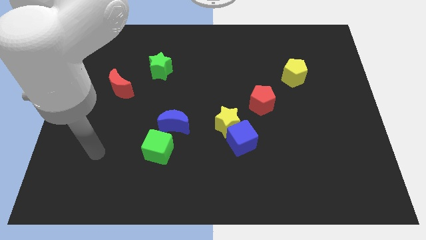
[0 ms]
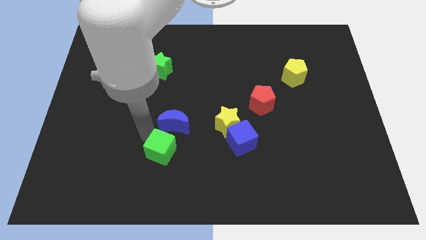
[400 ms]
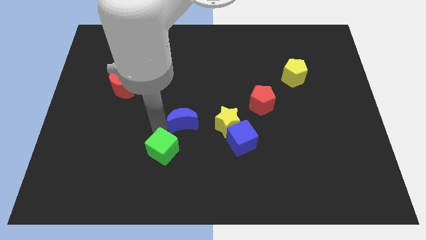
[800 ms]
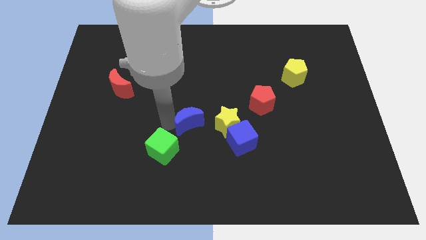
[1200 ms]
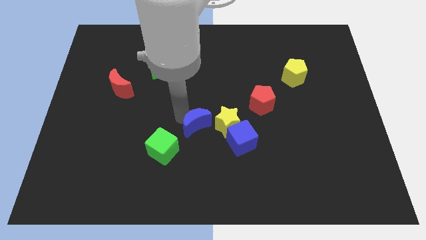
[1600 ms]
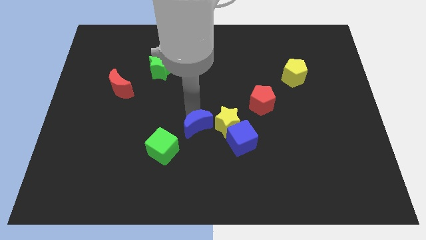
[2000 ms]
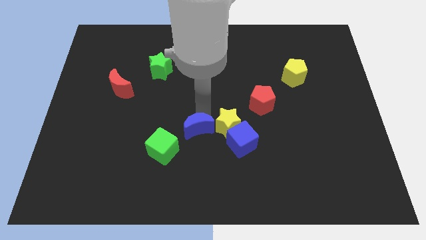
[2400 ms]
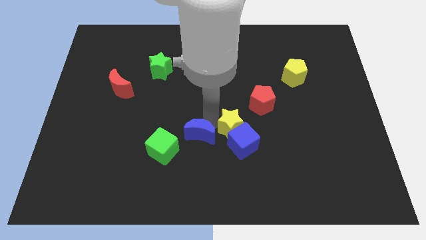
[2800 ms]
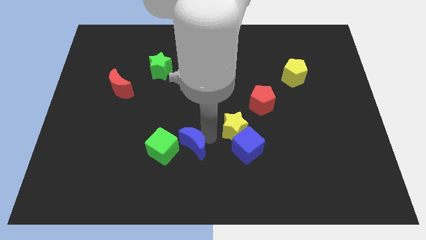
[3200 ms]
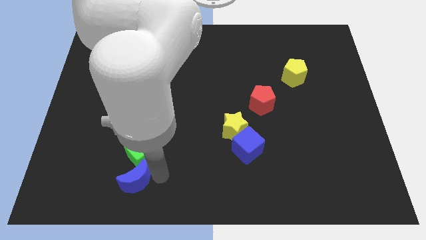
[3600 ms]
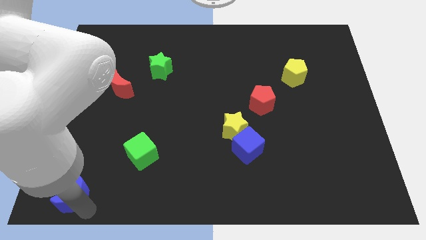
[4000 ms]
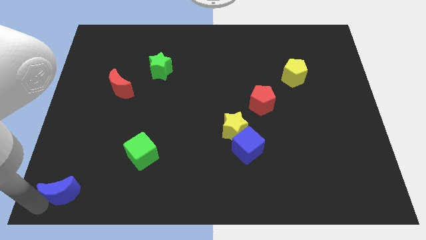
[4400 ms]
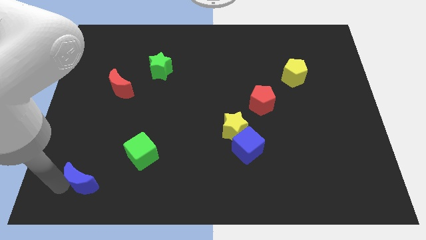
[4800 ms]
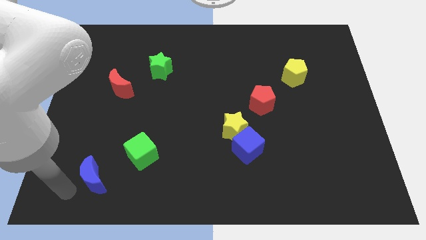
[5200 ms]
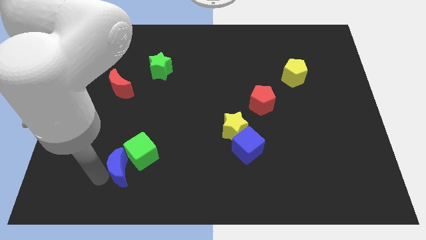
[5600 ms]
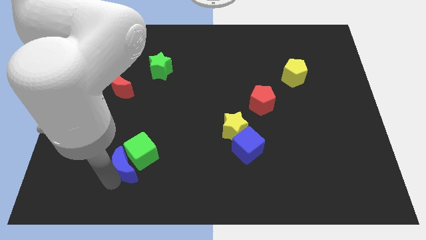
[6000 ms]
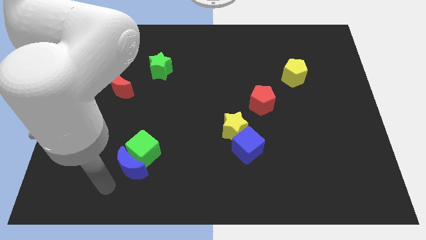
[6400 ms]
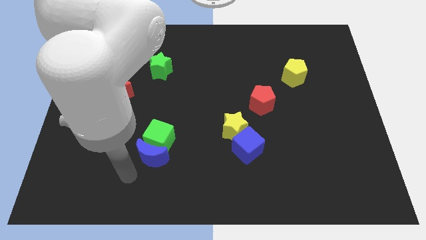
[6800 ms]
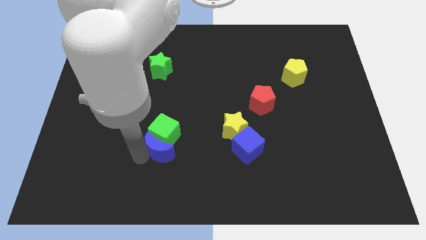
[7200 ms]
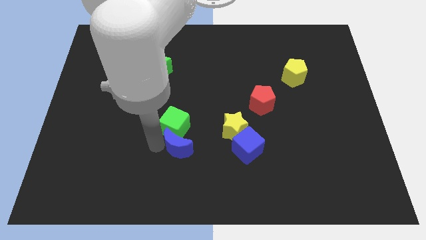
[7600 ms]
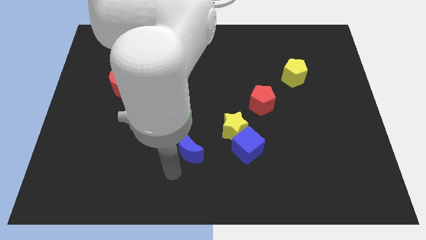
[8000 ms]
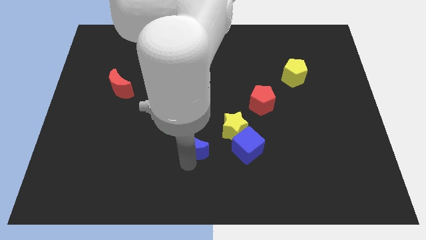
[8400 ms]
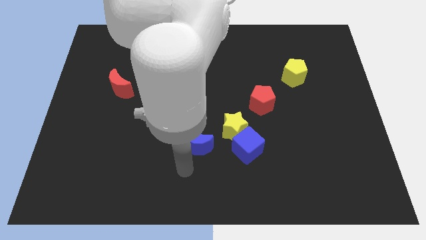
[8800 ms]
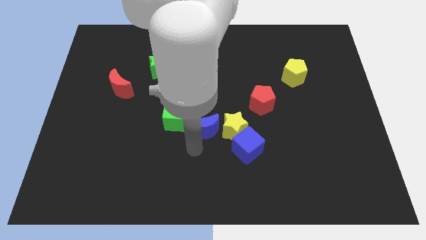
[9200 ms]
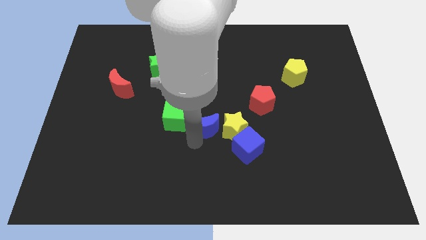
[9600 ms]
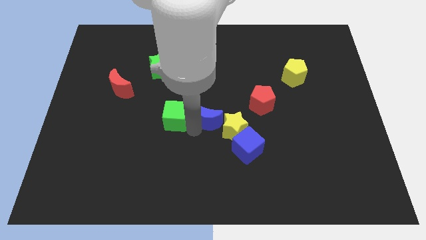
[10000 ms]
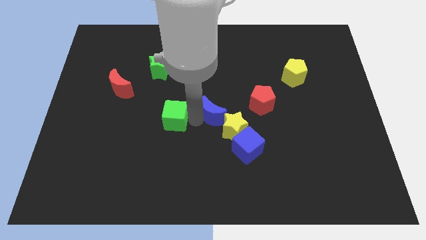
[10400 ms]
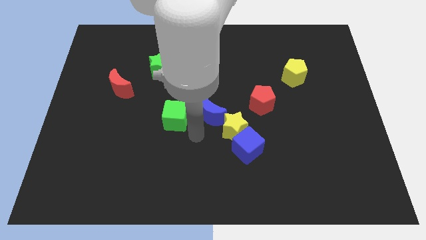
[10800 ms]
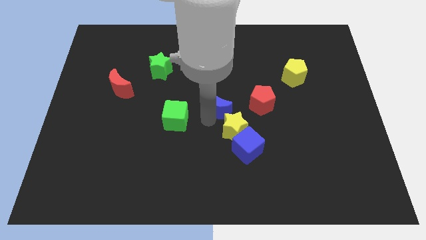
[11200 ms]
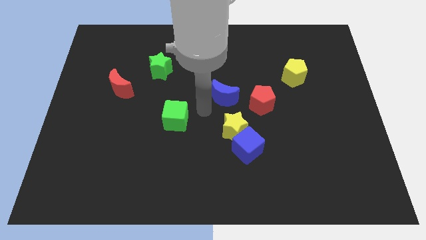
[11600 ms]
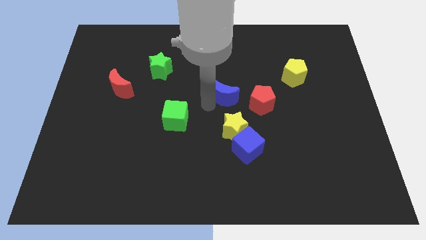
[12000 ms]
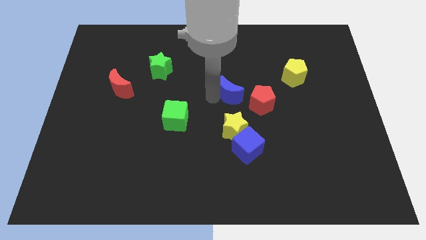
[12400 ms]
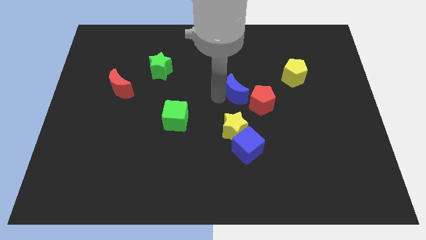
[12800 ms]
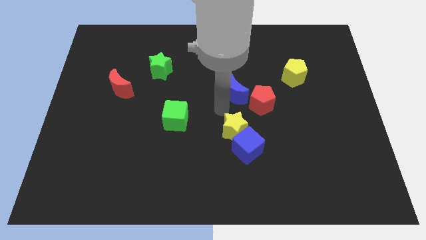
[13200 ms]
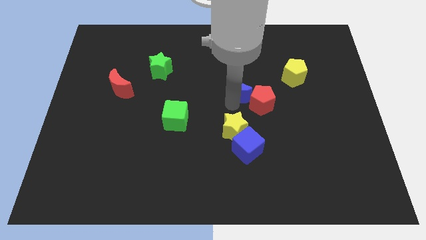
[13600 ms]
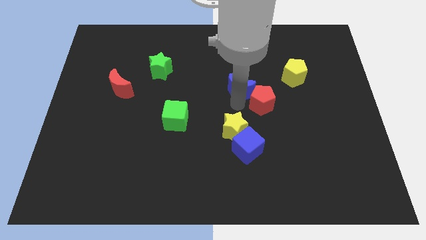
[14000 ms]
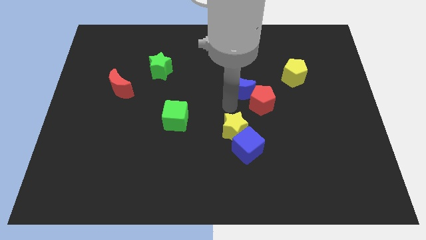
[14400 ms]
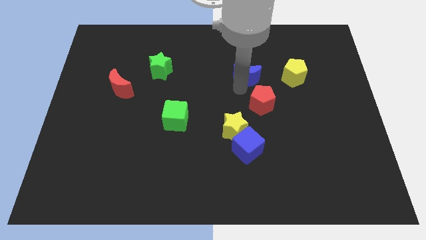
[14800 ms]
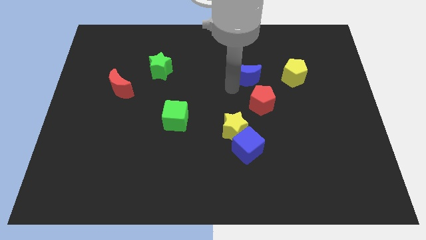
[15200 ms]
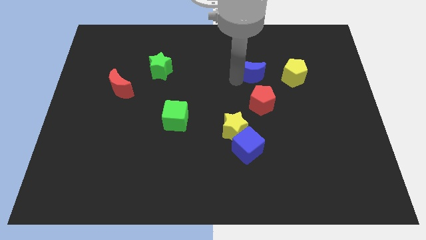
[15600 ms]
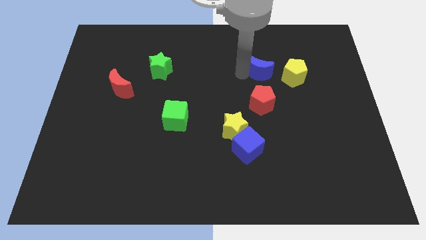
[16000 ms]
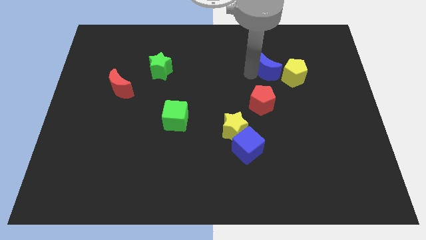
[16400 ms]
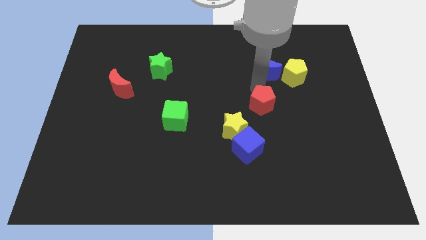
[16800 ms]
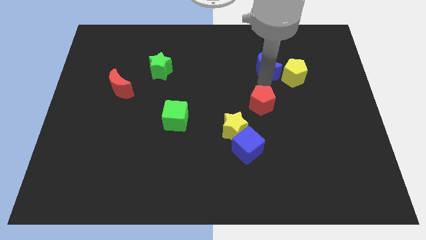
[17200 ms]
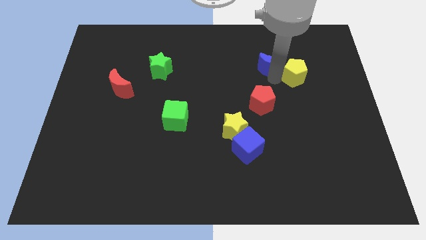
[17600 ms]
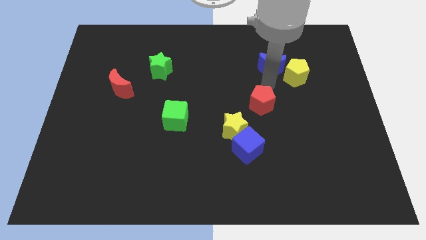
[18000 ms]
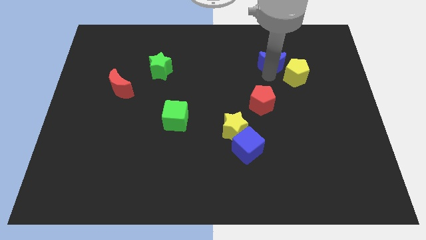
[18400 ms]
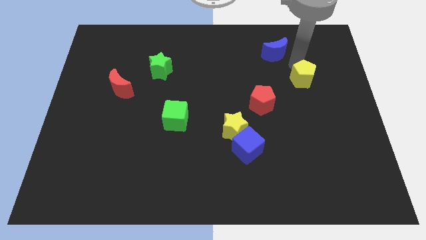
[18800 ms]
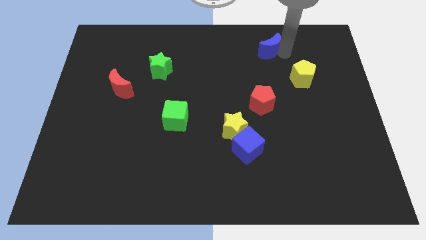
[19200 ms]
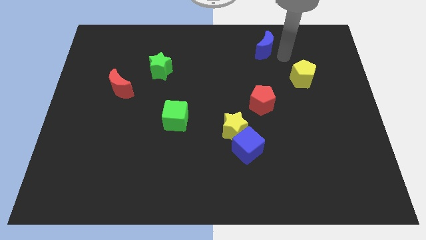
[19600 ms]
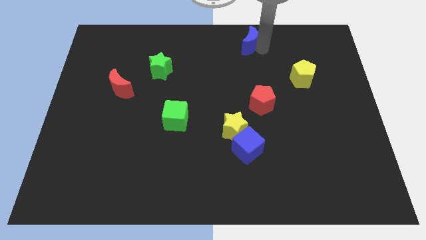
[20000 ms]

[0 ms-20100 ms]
push the blue moon to the top

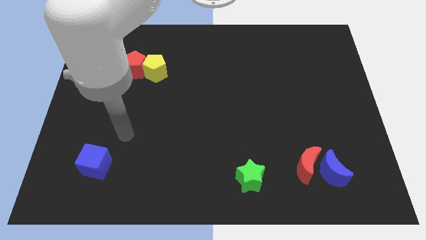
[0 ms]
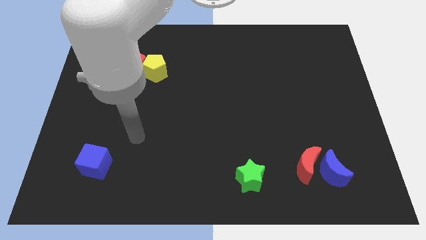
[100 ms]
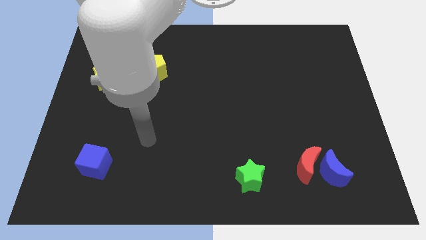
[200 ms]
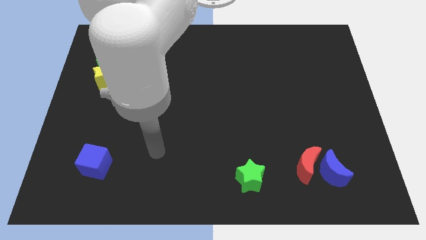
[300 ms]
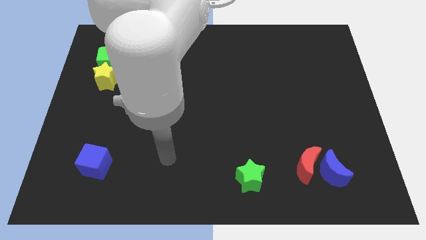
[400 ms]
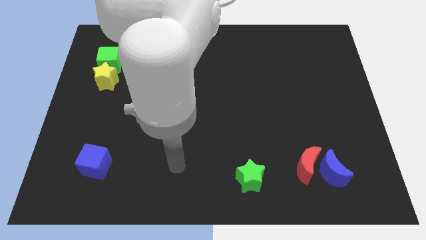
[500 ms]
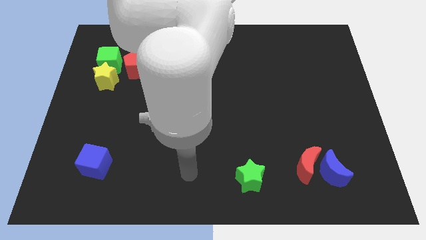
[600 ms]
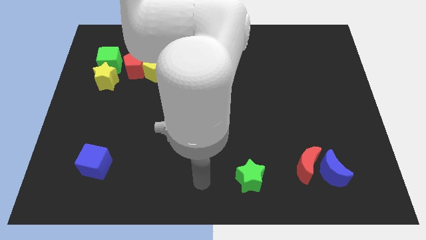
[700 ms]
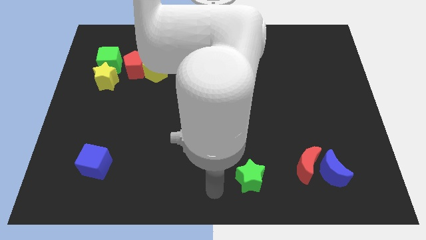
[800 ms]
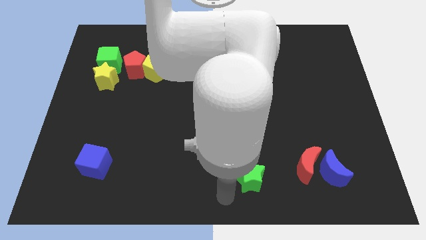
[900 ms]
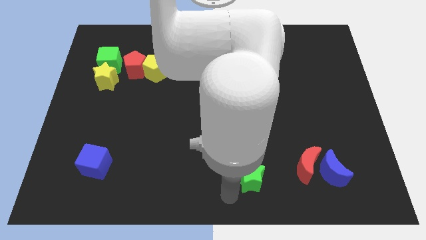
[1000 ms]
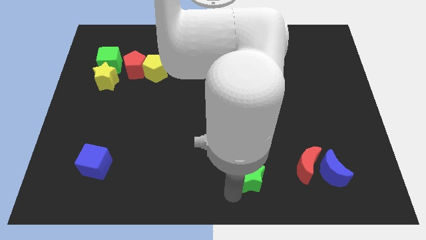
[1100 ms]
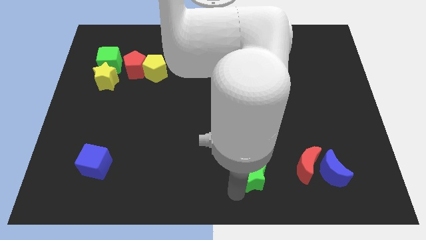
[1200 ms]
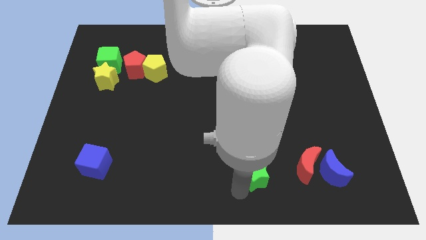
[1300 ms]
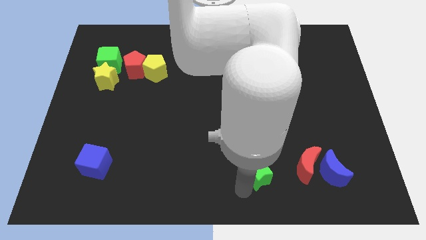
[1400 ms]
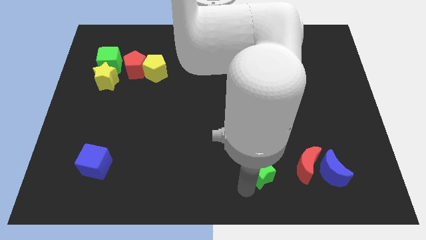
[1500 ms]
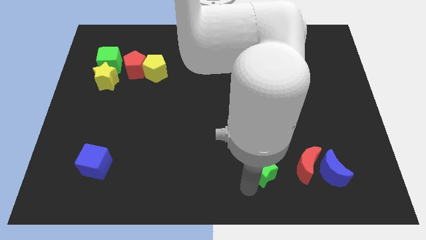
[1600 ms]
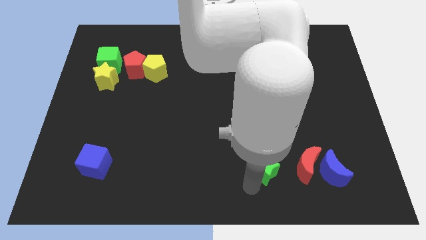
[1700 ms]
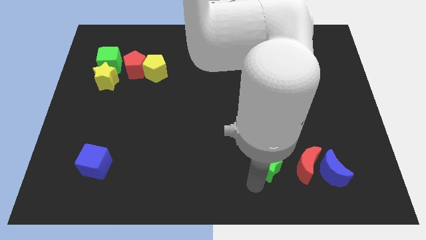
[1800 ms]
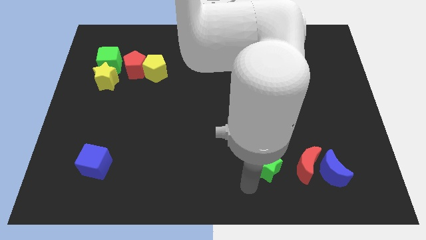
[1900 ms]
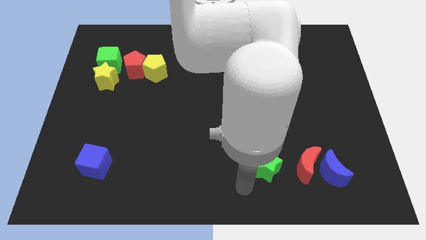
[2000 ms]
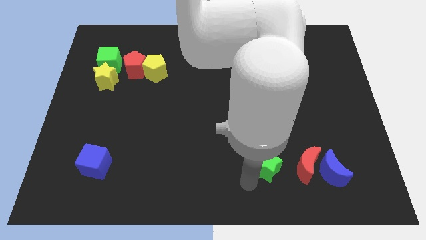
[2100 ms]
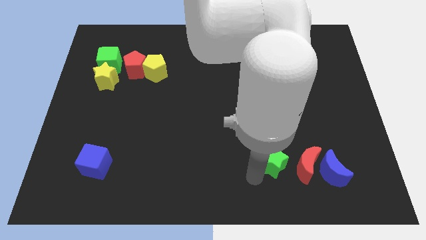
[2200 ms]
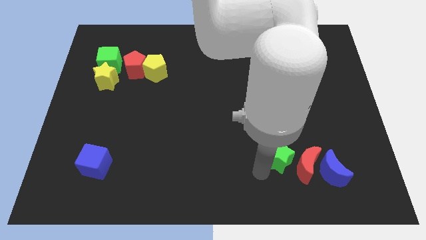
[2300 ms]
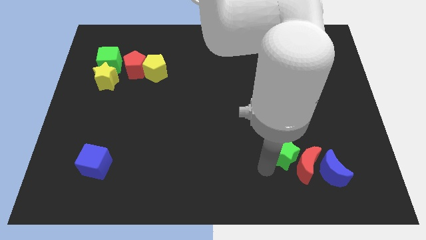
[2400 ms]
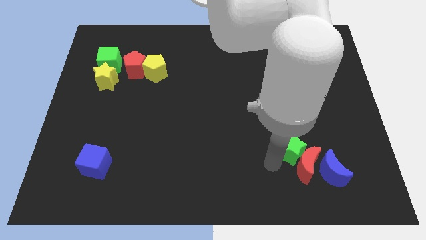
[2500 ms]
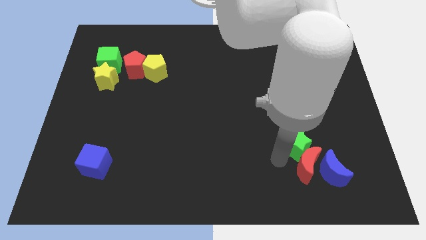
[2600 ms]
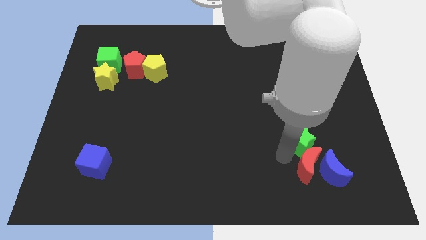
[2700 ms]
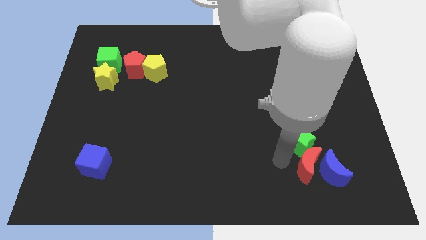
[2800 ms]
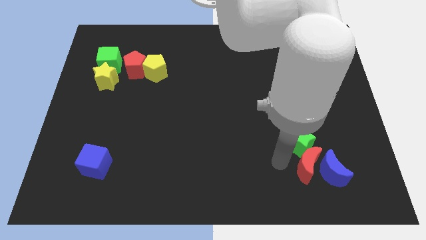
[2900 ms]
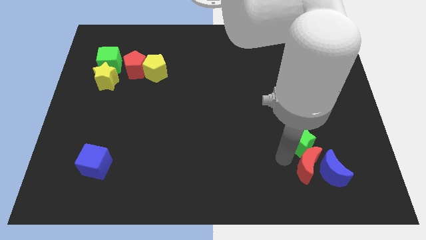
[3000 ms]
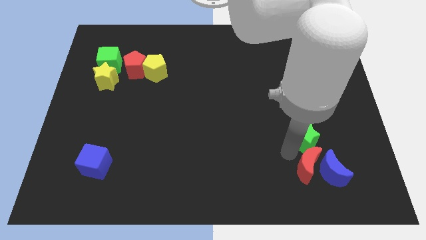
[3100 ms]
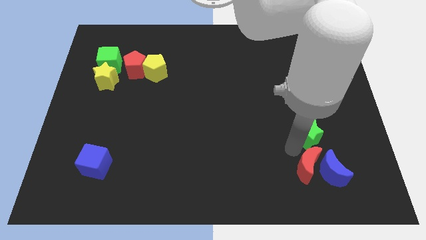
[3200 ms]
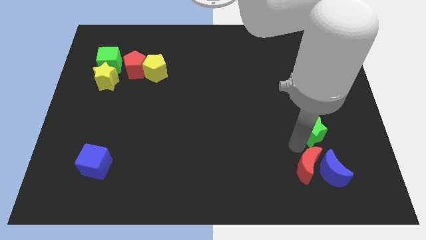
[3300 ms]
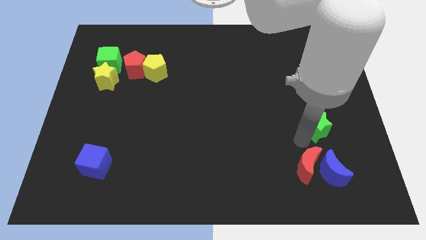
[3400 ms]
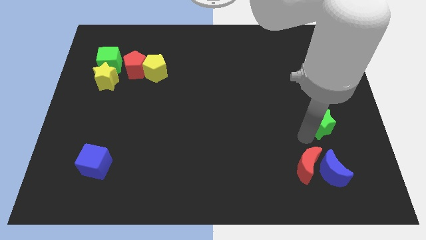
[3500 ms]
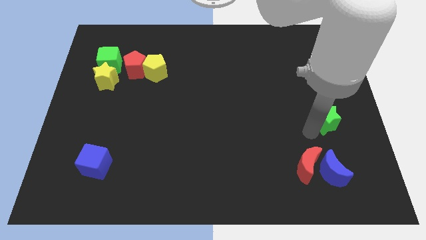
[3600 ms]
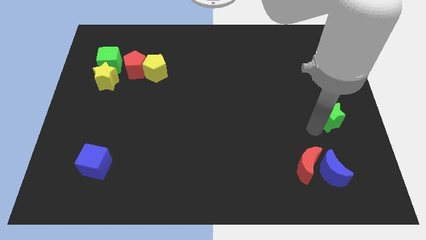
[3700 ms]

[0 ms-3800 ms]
push the green star to the right side
